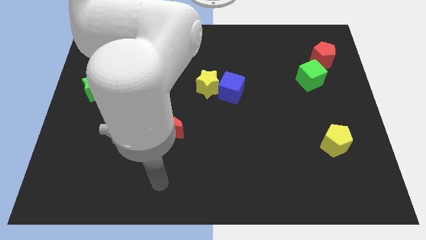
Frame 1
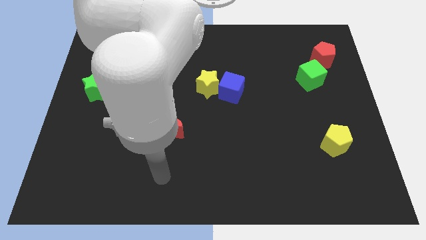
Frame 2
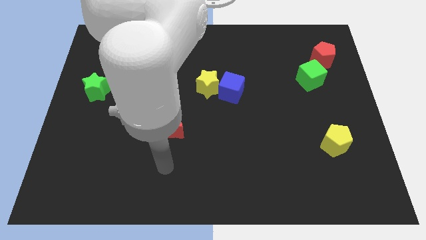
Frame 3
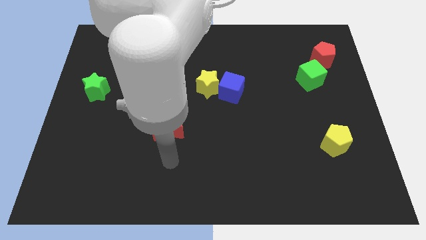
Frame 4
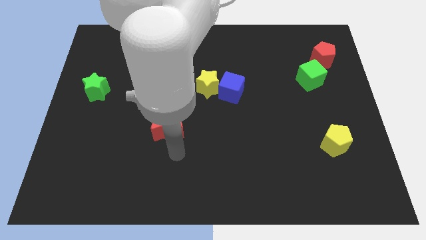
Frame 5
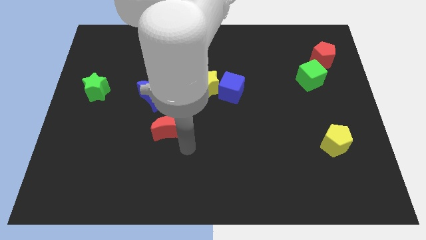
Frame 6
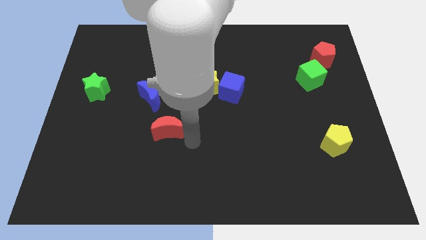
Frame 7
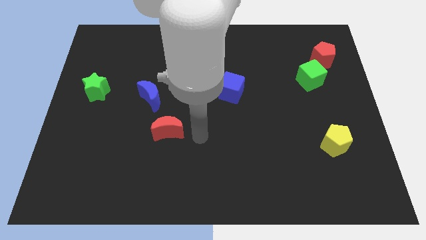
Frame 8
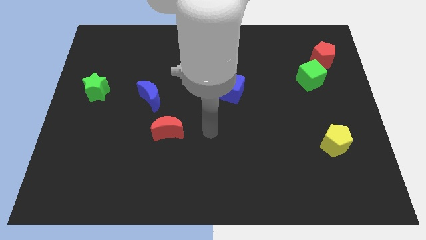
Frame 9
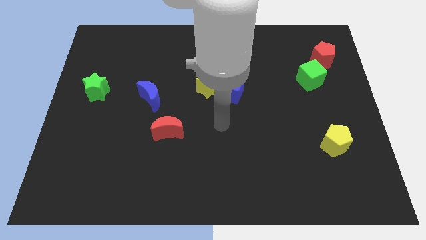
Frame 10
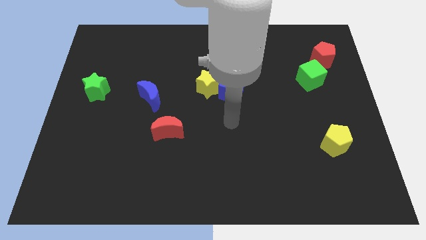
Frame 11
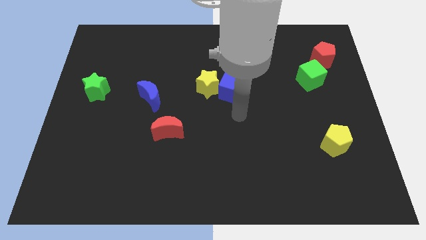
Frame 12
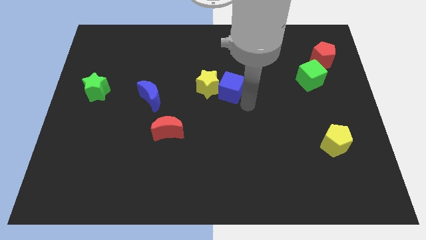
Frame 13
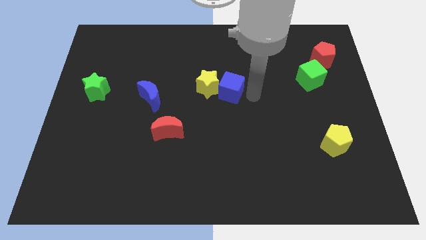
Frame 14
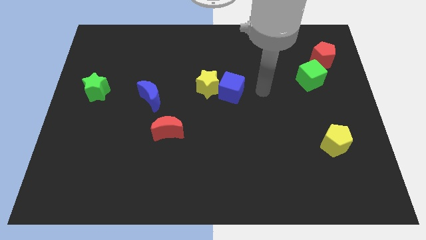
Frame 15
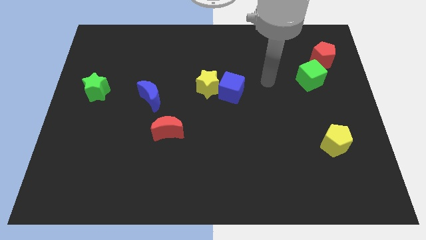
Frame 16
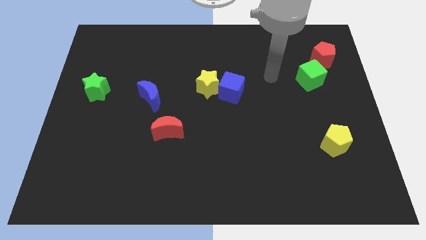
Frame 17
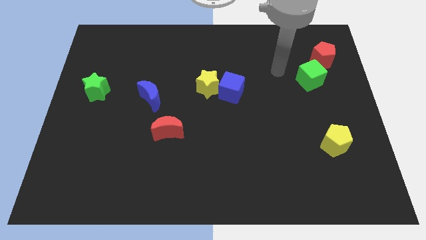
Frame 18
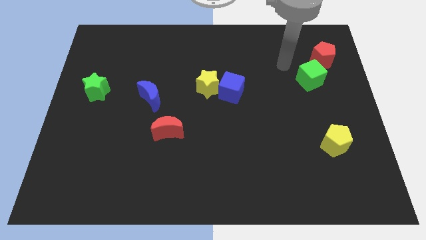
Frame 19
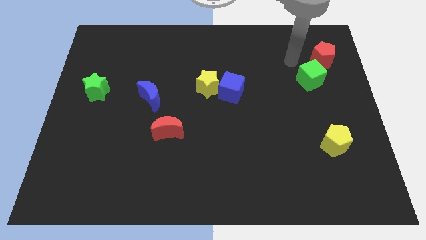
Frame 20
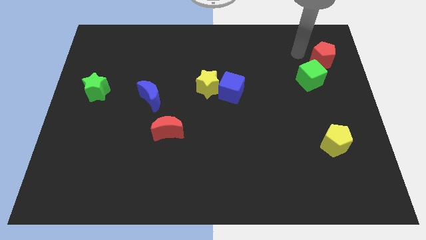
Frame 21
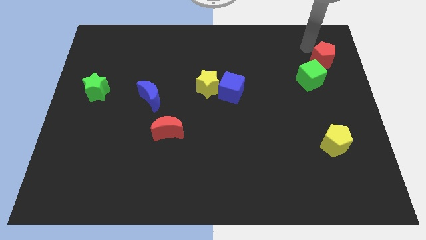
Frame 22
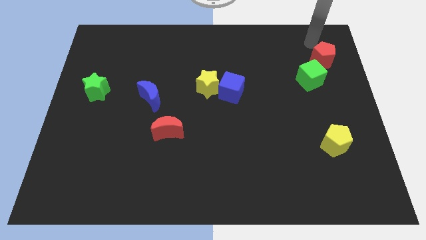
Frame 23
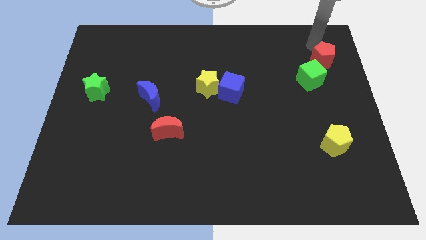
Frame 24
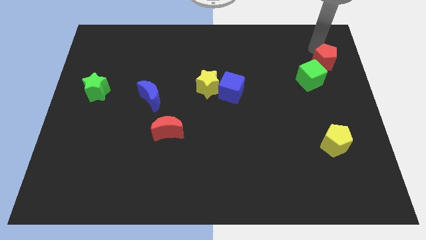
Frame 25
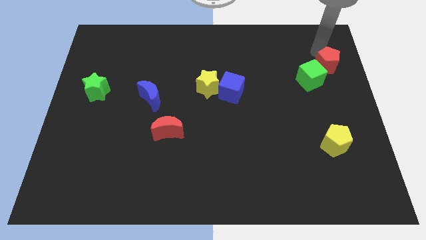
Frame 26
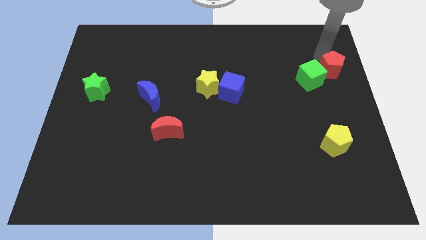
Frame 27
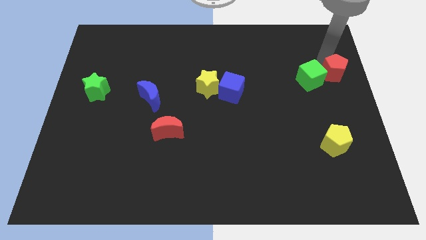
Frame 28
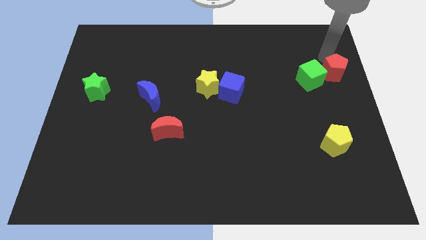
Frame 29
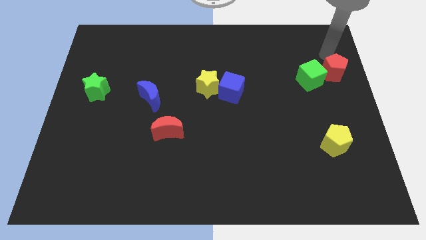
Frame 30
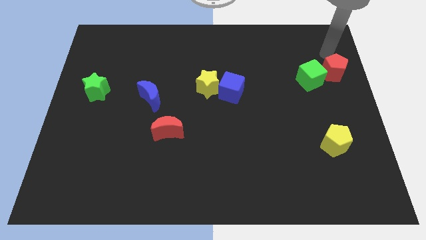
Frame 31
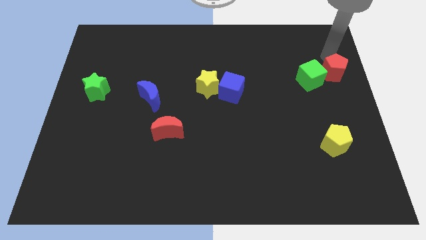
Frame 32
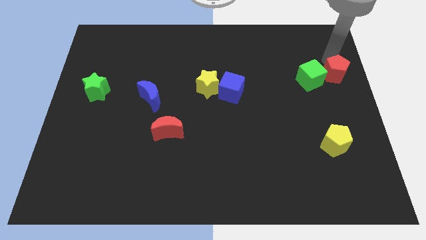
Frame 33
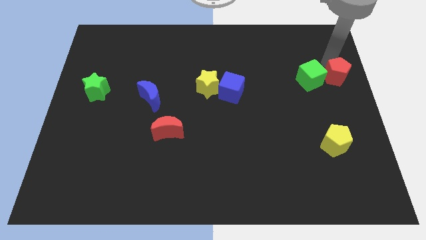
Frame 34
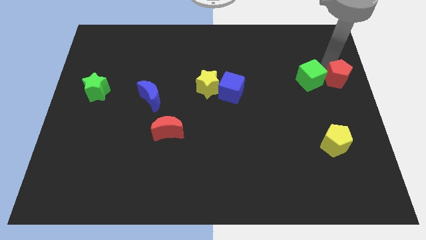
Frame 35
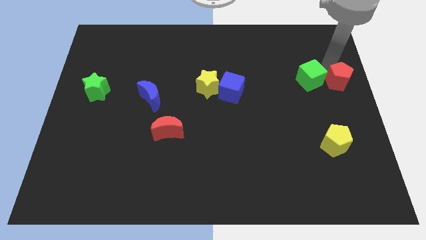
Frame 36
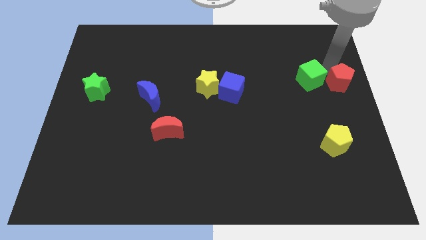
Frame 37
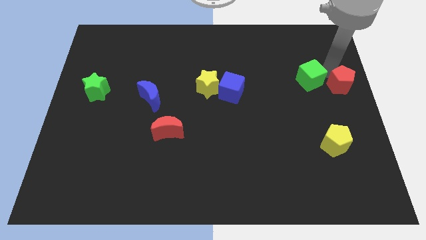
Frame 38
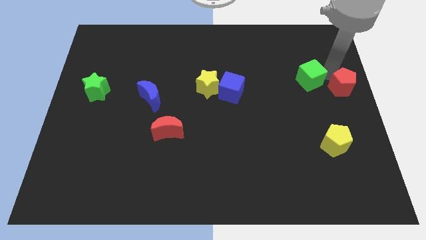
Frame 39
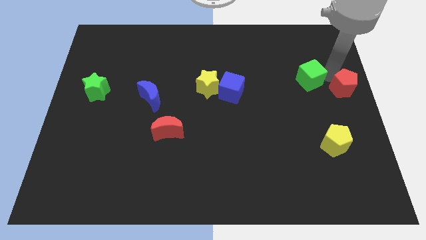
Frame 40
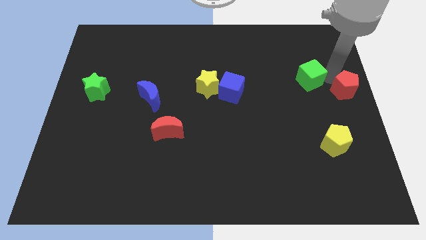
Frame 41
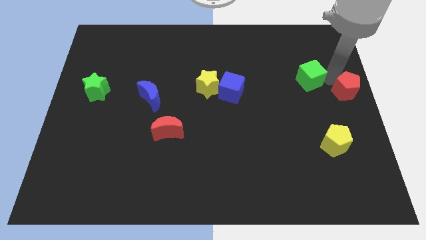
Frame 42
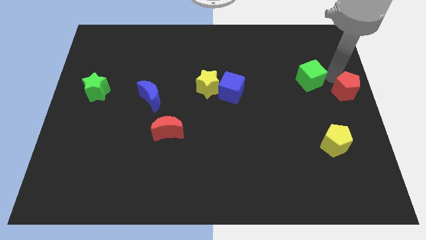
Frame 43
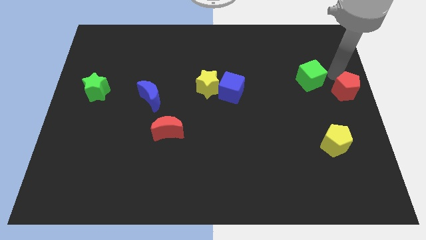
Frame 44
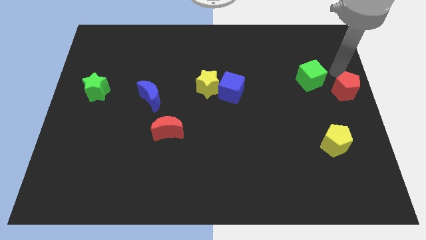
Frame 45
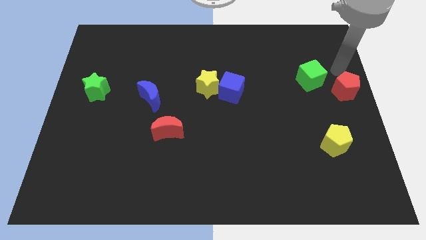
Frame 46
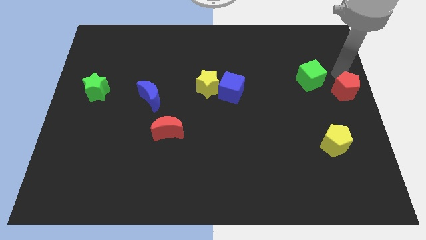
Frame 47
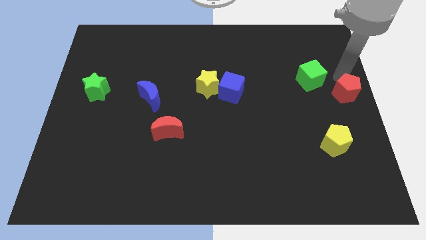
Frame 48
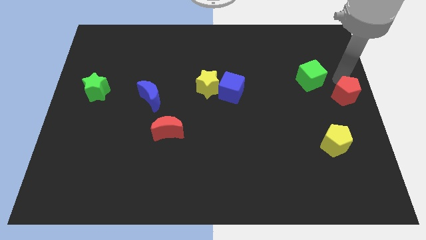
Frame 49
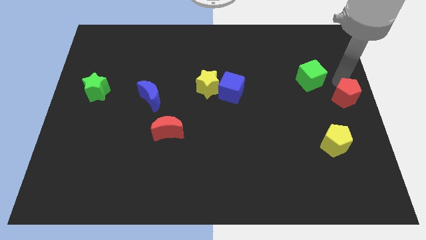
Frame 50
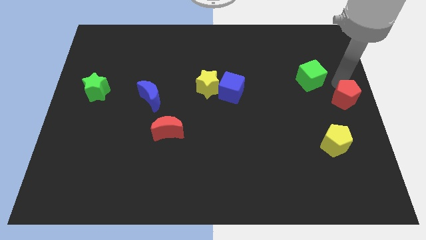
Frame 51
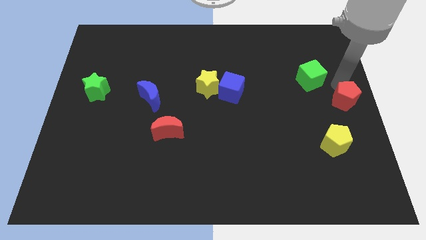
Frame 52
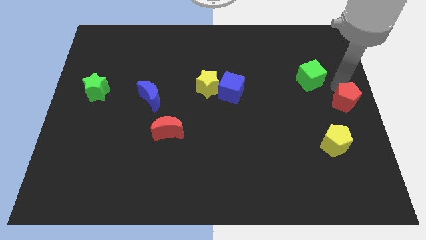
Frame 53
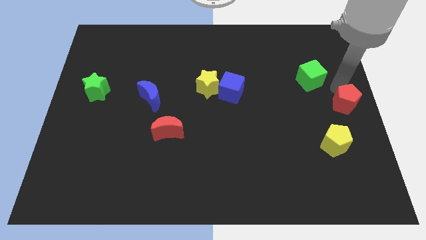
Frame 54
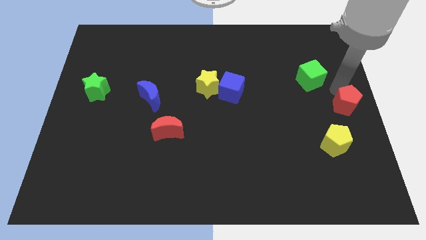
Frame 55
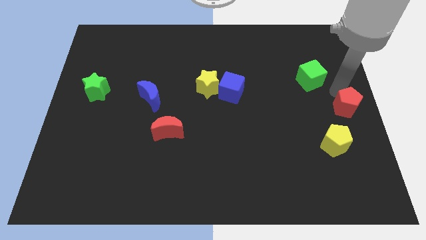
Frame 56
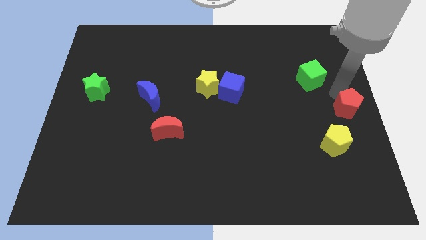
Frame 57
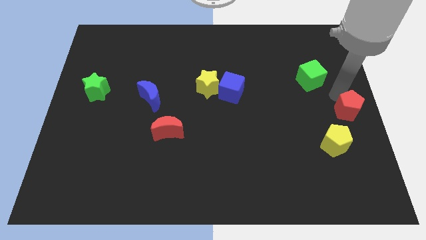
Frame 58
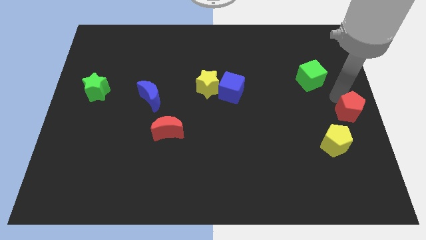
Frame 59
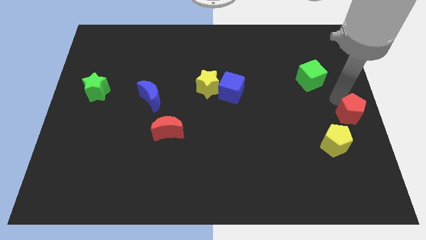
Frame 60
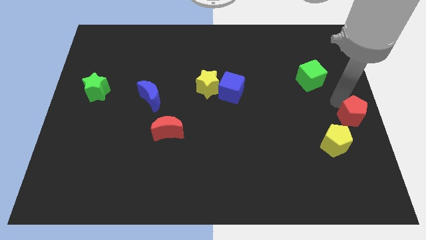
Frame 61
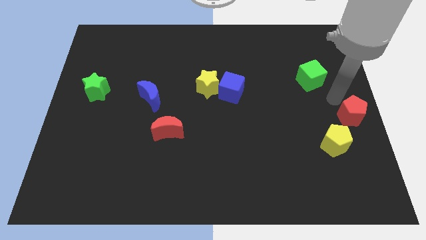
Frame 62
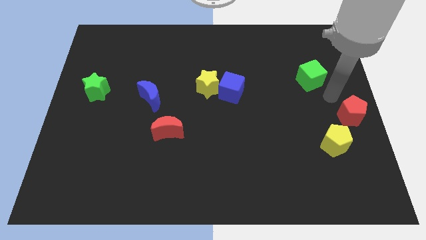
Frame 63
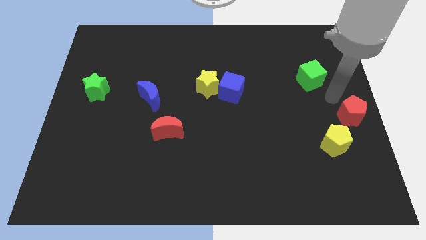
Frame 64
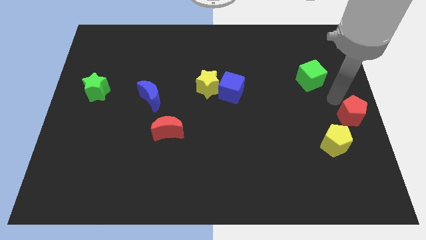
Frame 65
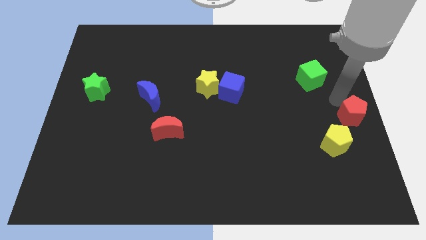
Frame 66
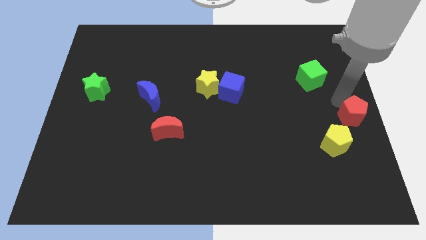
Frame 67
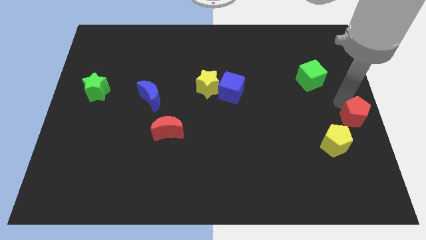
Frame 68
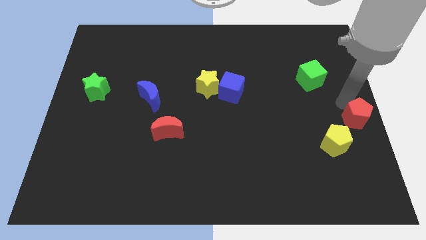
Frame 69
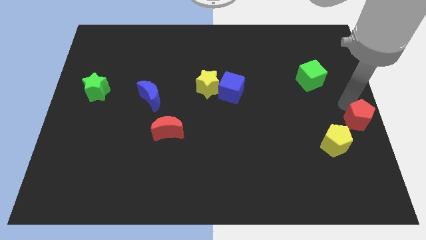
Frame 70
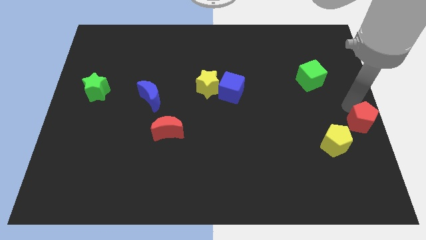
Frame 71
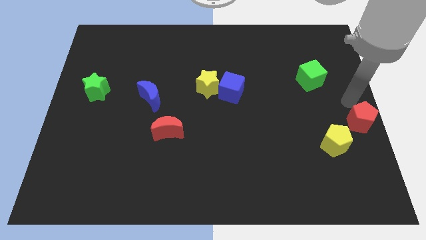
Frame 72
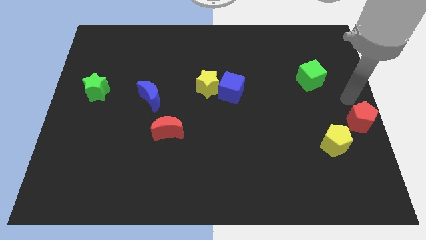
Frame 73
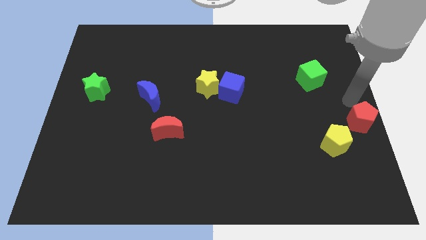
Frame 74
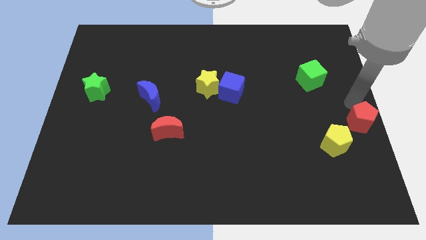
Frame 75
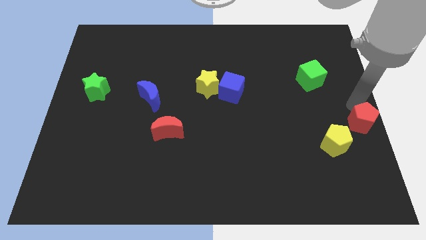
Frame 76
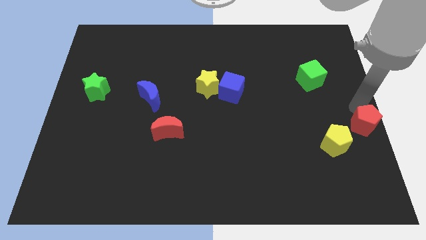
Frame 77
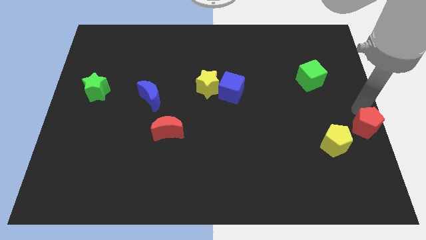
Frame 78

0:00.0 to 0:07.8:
push the red pentagon down

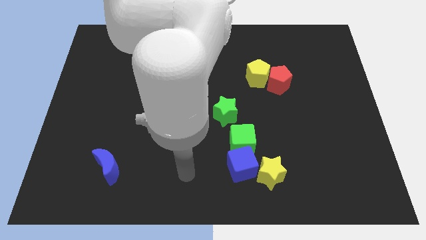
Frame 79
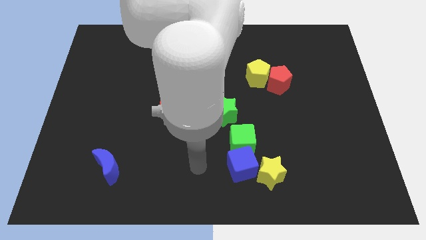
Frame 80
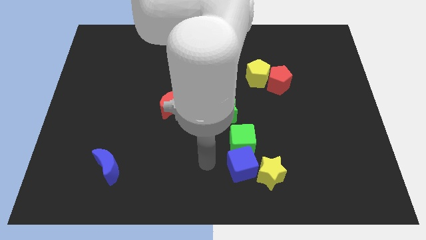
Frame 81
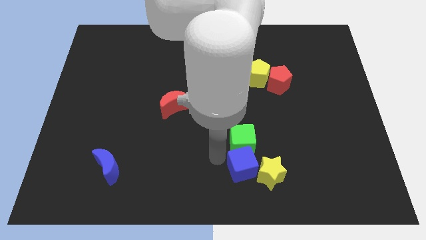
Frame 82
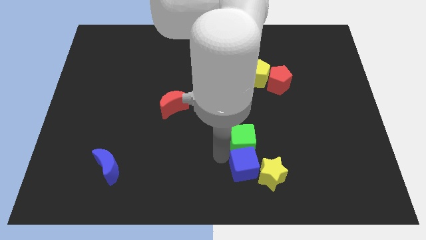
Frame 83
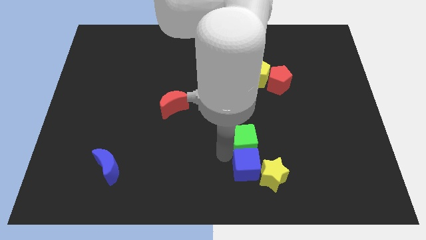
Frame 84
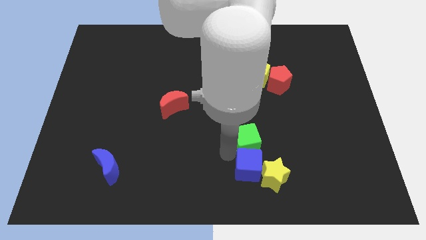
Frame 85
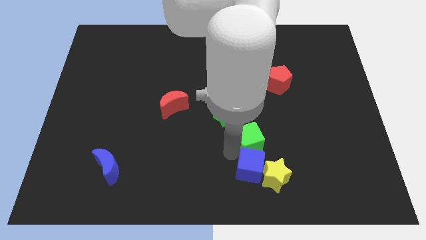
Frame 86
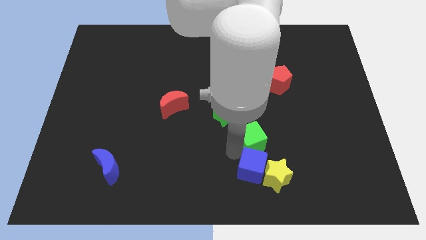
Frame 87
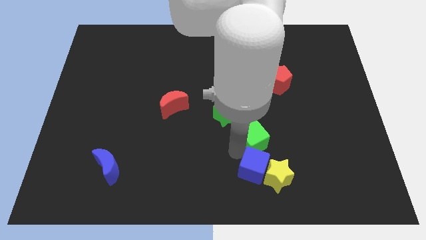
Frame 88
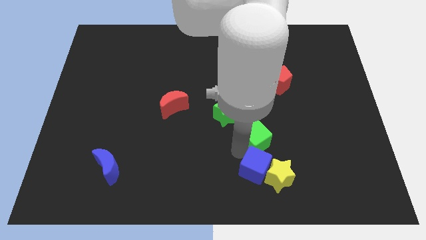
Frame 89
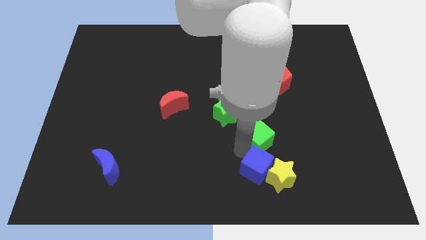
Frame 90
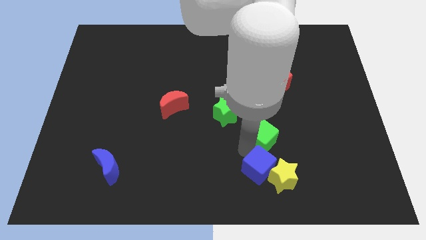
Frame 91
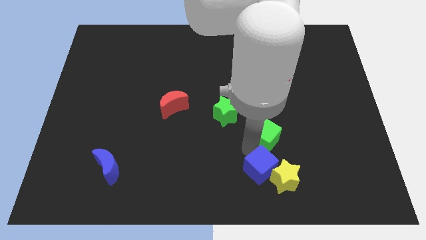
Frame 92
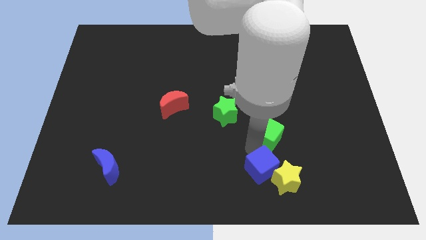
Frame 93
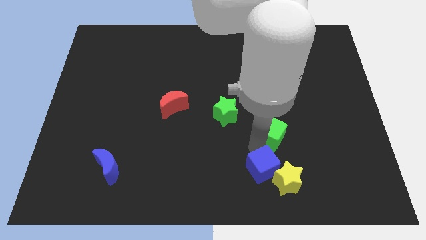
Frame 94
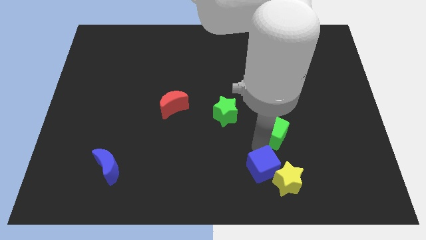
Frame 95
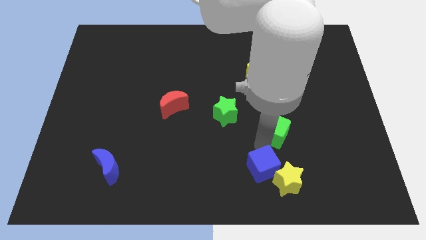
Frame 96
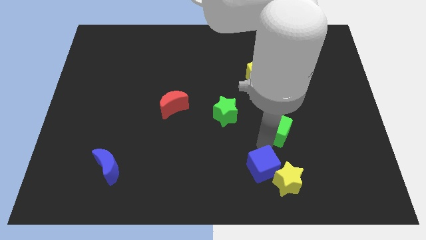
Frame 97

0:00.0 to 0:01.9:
push the green cube a little upwards and to the right diagonally
